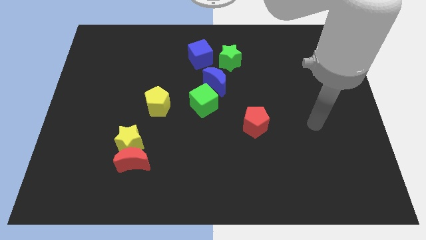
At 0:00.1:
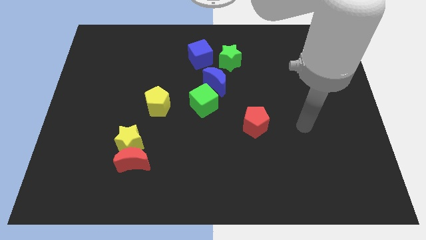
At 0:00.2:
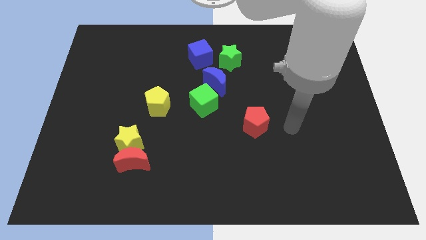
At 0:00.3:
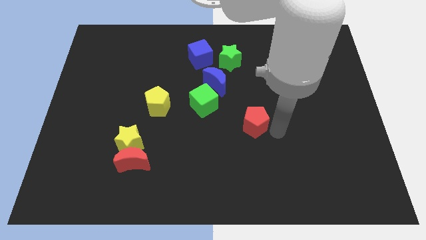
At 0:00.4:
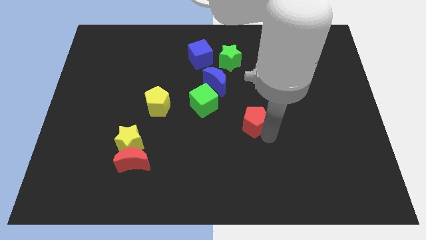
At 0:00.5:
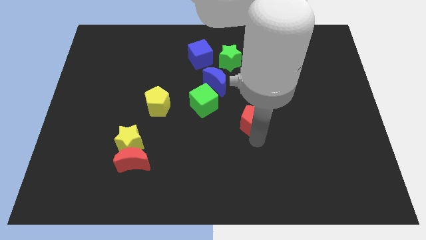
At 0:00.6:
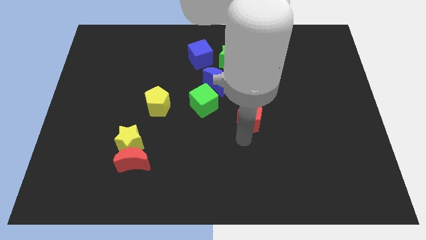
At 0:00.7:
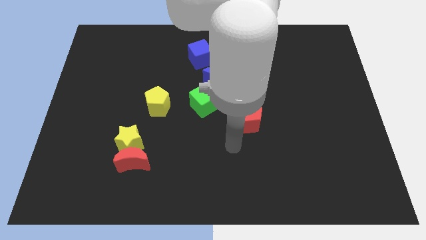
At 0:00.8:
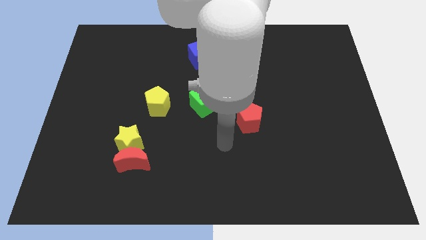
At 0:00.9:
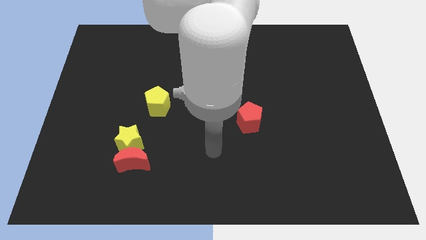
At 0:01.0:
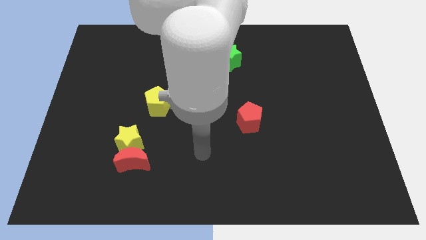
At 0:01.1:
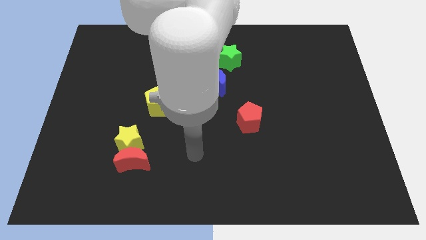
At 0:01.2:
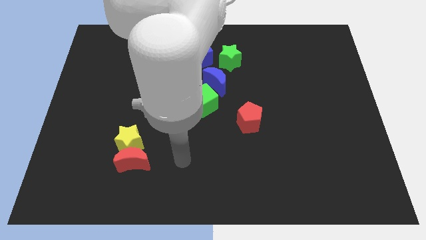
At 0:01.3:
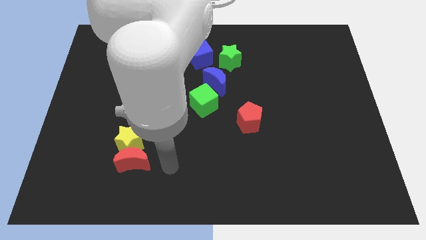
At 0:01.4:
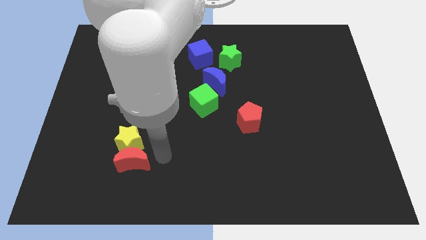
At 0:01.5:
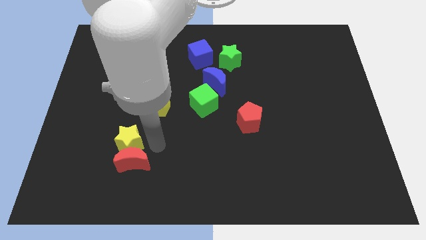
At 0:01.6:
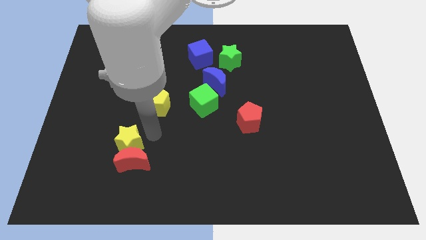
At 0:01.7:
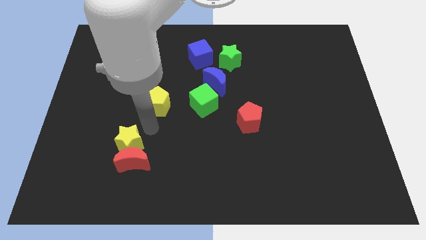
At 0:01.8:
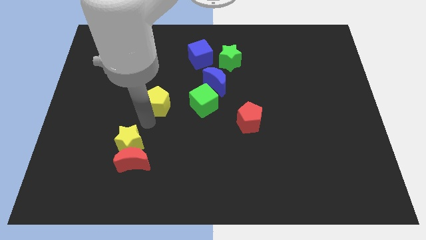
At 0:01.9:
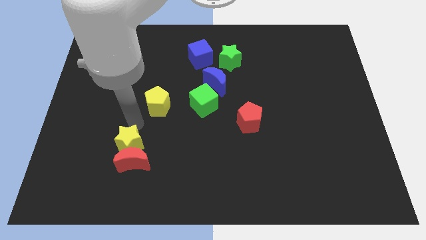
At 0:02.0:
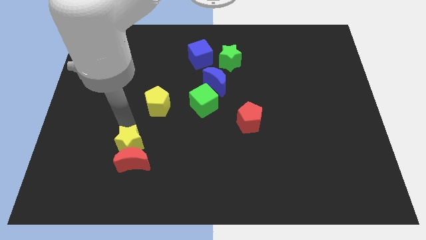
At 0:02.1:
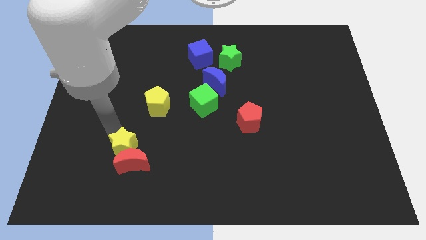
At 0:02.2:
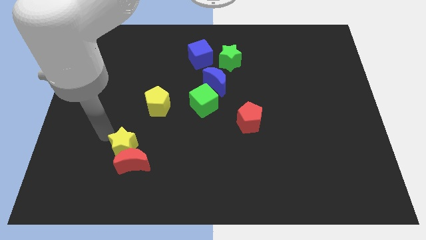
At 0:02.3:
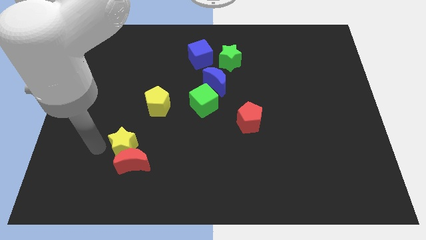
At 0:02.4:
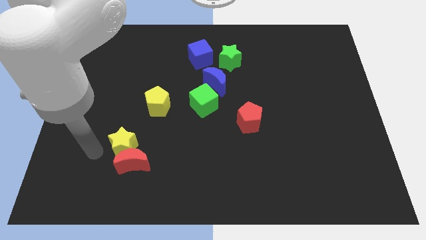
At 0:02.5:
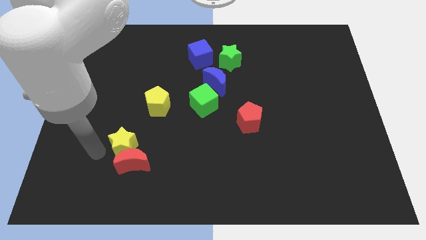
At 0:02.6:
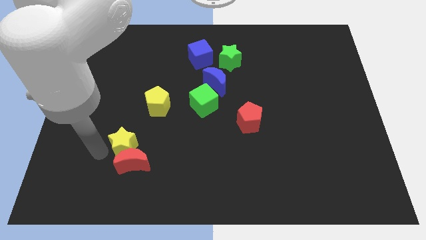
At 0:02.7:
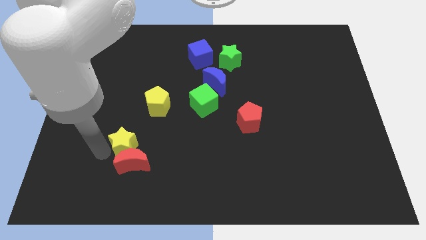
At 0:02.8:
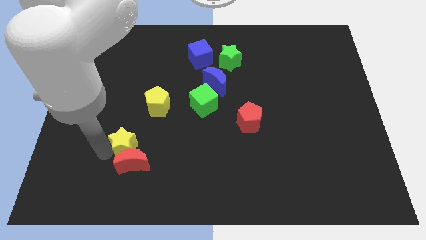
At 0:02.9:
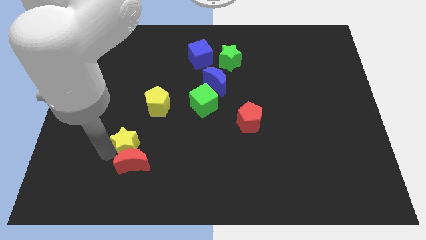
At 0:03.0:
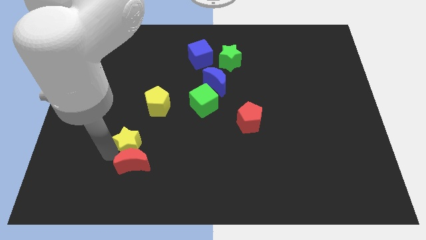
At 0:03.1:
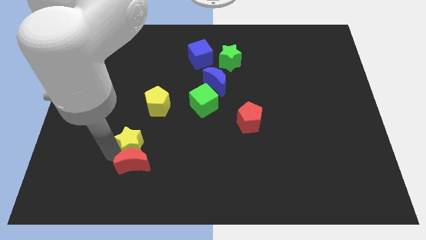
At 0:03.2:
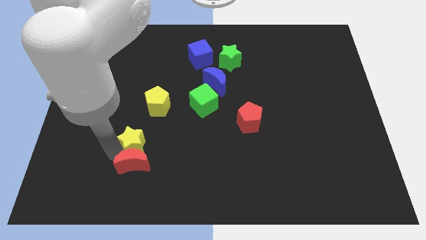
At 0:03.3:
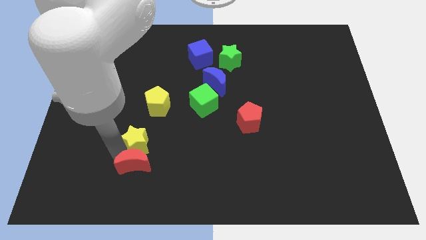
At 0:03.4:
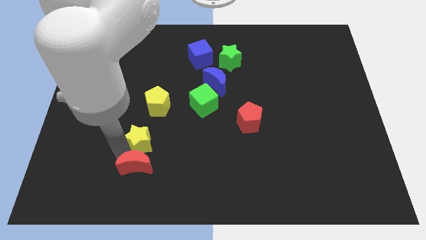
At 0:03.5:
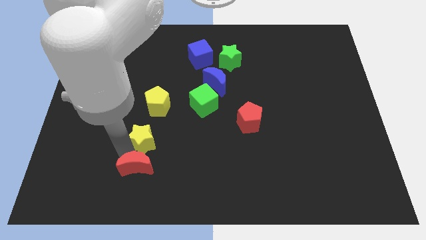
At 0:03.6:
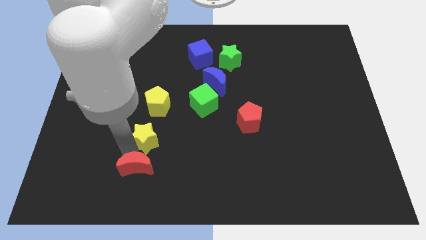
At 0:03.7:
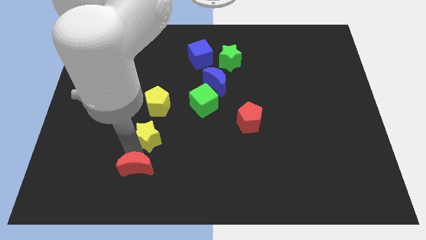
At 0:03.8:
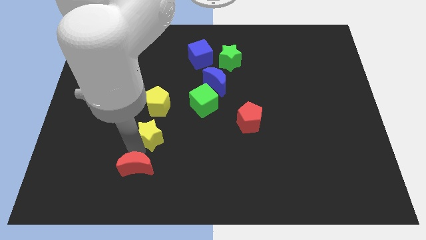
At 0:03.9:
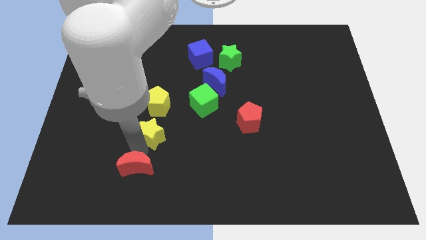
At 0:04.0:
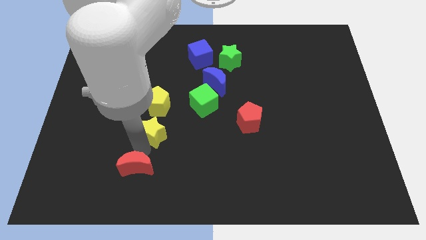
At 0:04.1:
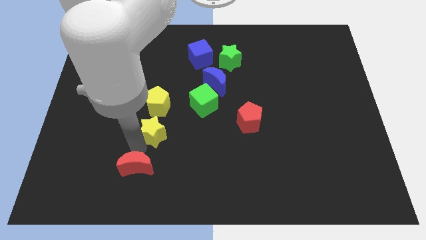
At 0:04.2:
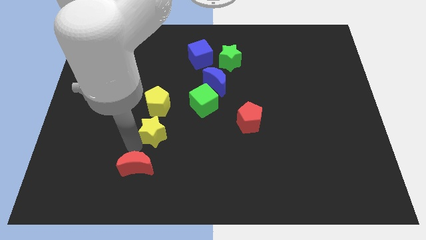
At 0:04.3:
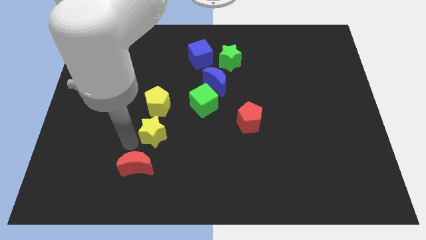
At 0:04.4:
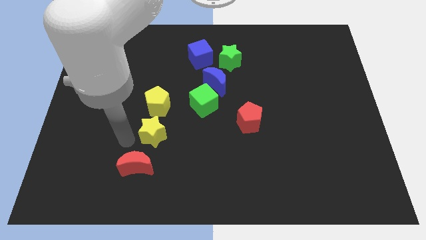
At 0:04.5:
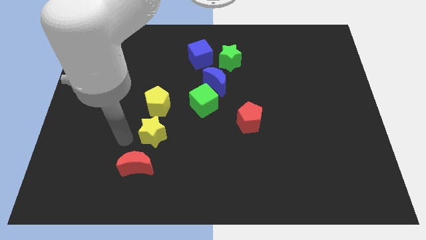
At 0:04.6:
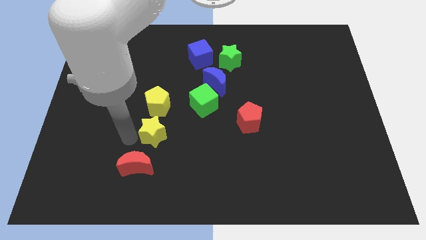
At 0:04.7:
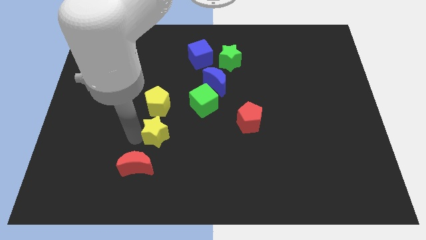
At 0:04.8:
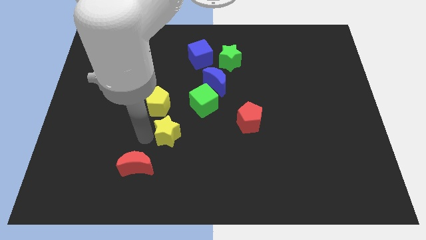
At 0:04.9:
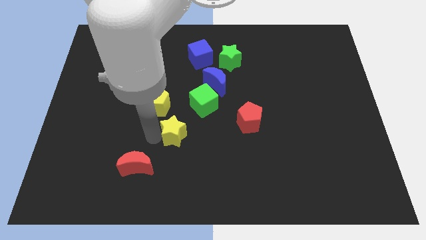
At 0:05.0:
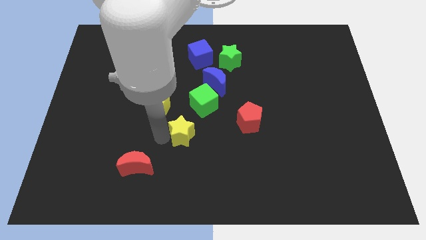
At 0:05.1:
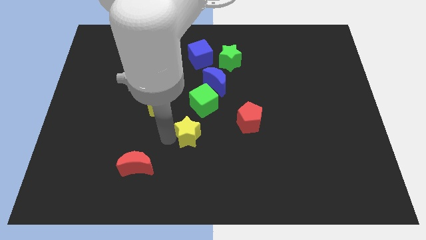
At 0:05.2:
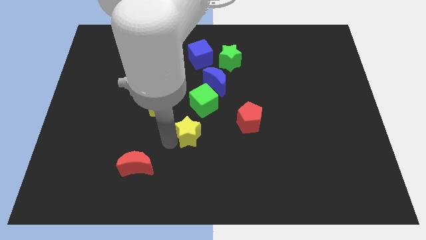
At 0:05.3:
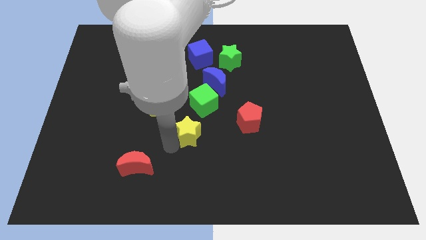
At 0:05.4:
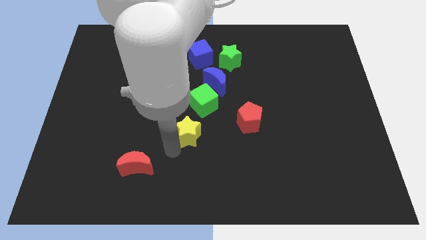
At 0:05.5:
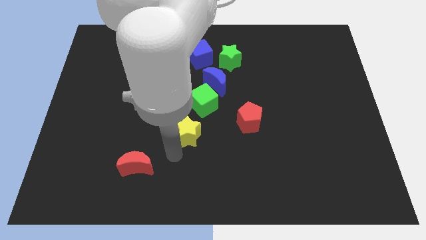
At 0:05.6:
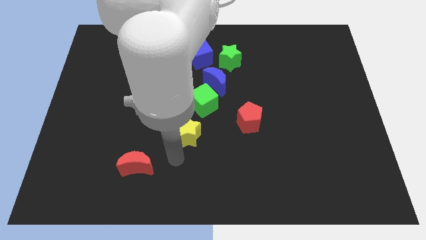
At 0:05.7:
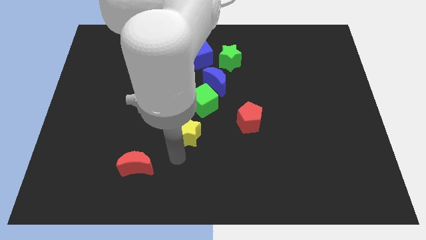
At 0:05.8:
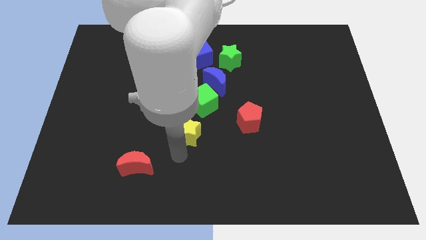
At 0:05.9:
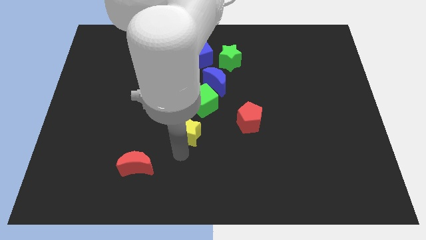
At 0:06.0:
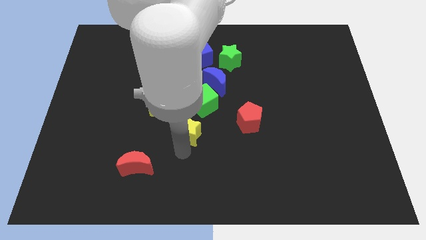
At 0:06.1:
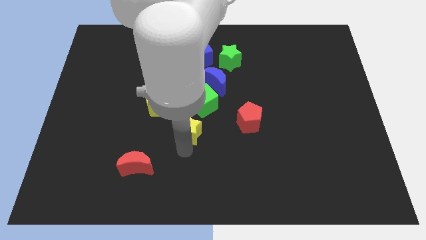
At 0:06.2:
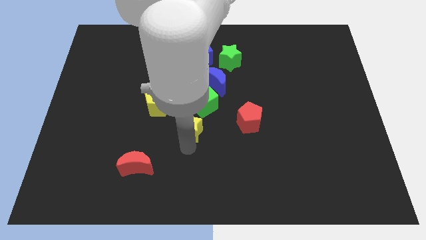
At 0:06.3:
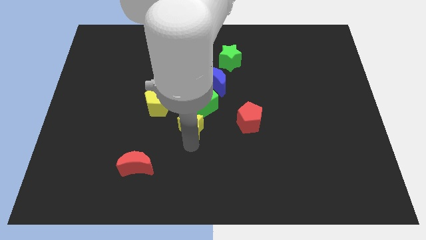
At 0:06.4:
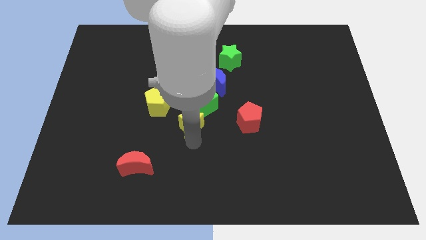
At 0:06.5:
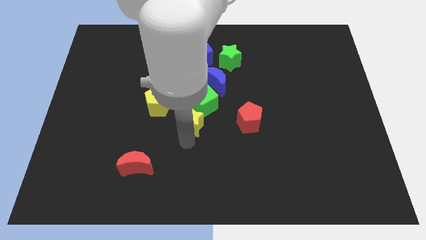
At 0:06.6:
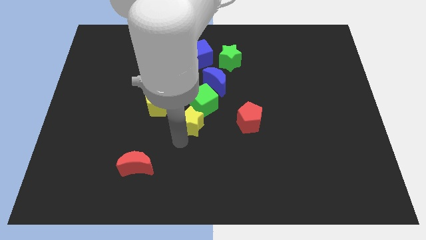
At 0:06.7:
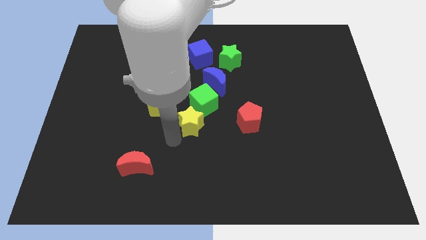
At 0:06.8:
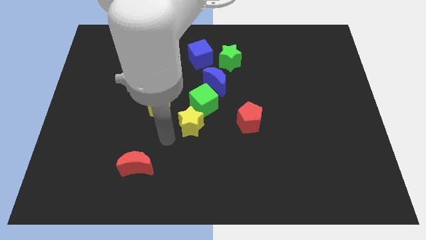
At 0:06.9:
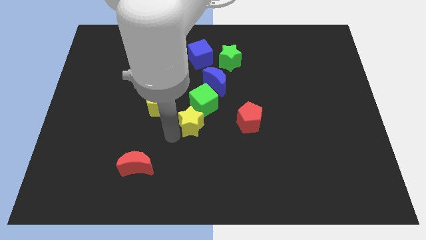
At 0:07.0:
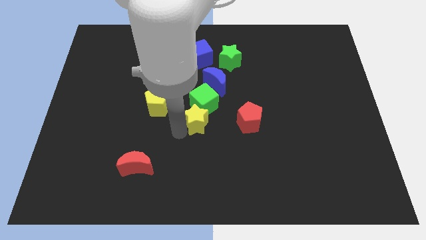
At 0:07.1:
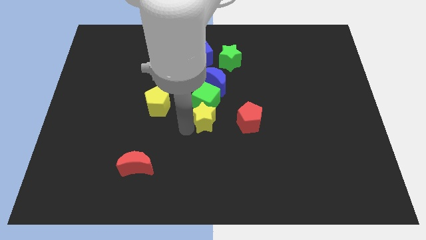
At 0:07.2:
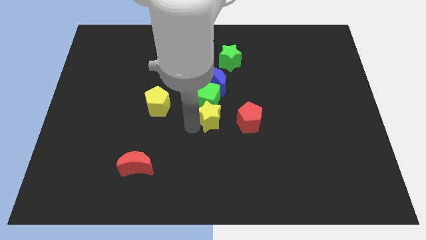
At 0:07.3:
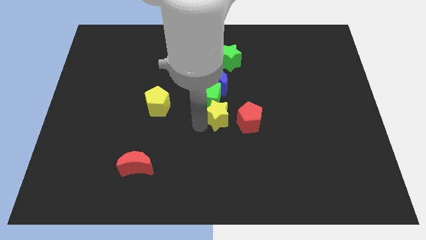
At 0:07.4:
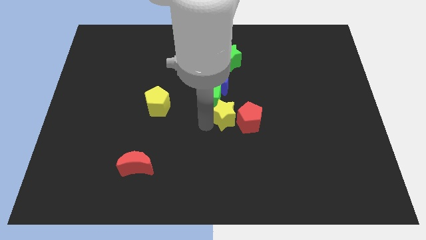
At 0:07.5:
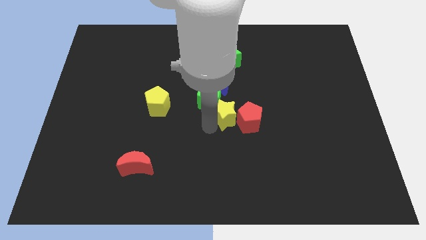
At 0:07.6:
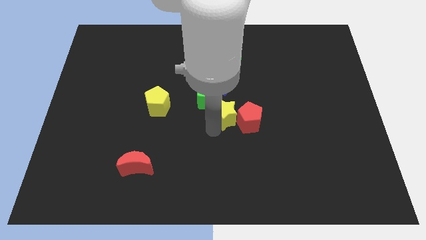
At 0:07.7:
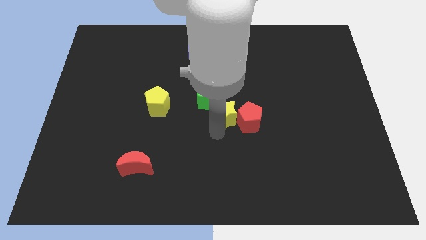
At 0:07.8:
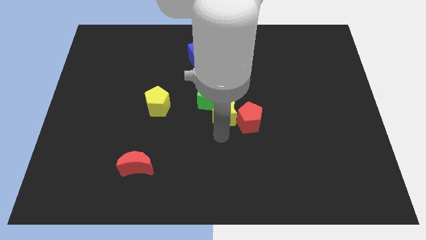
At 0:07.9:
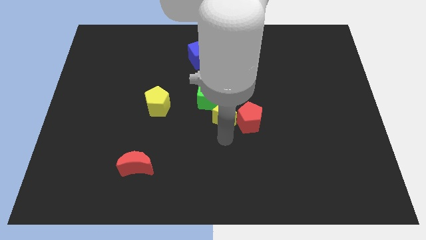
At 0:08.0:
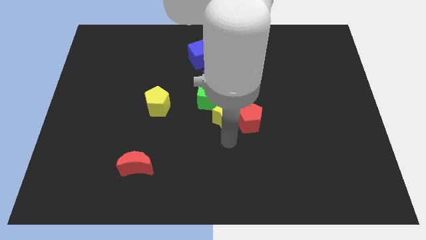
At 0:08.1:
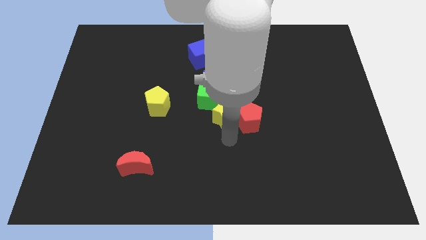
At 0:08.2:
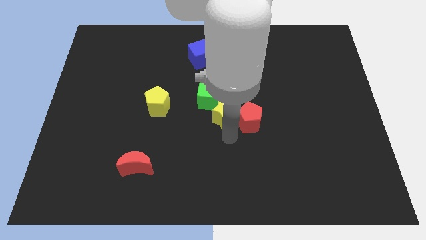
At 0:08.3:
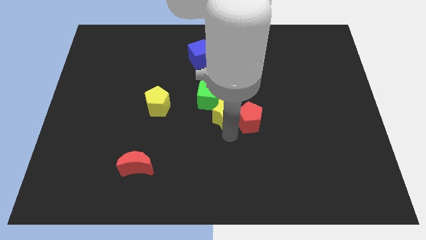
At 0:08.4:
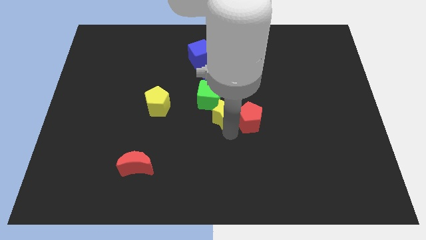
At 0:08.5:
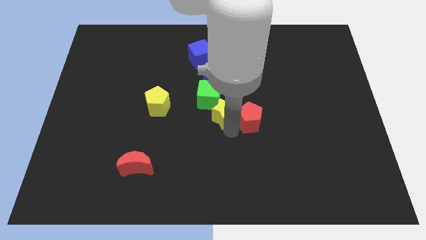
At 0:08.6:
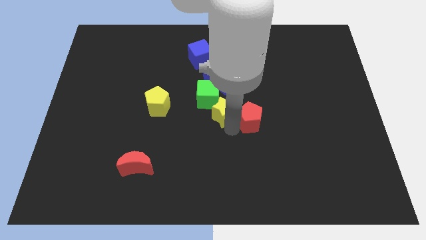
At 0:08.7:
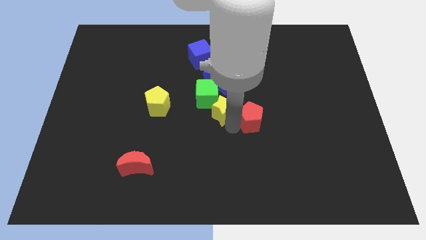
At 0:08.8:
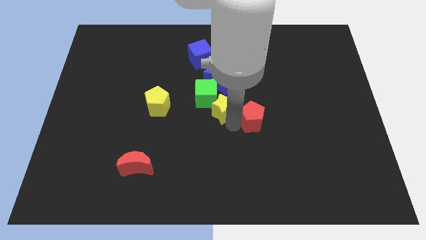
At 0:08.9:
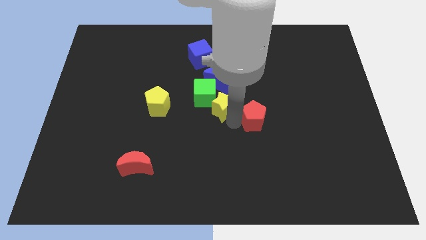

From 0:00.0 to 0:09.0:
move the yellow star to the bottom side of the green star
